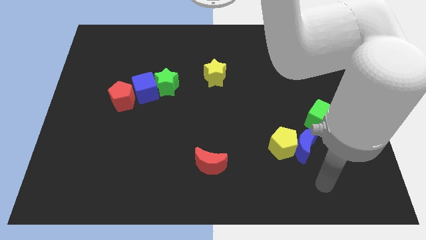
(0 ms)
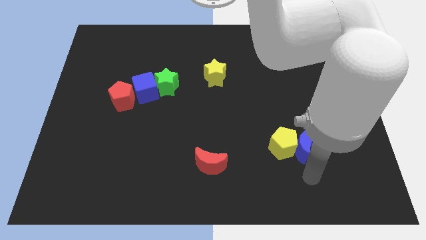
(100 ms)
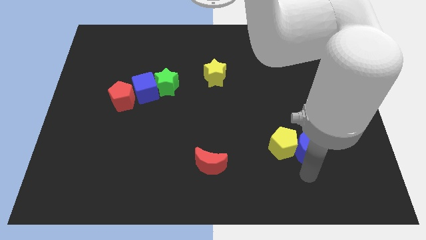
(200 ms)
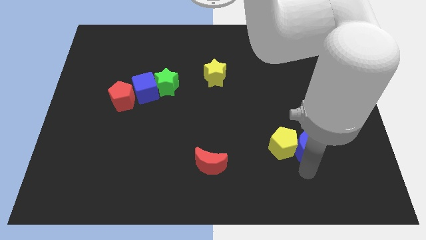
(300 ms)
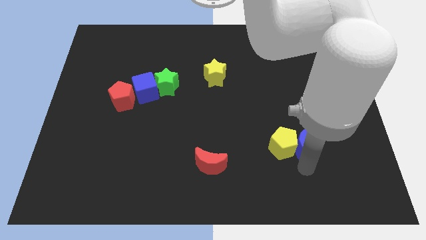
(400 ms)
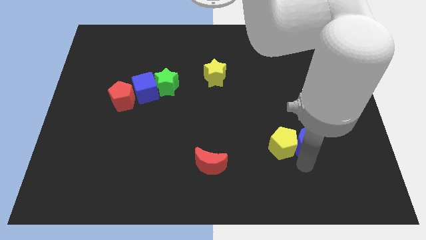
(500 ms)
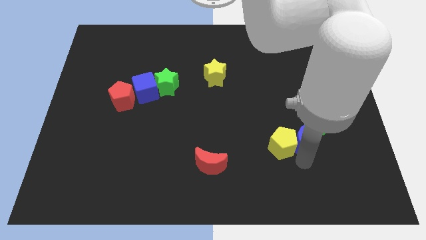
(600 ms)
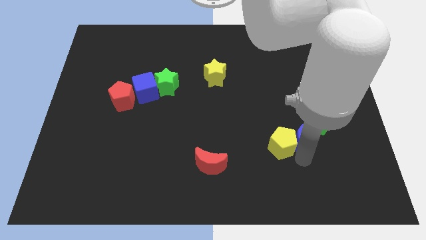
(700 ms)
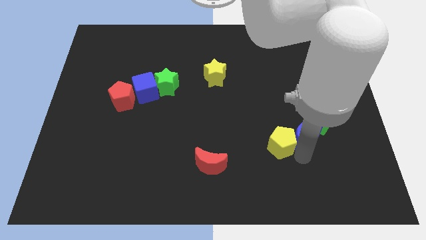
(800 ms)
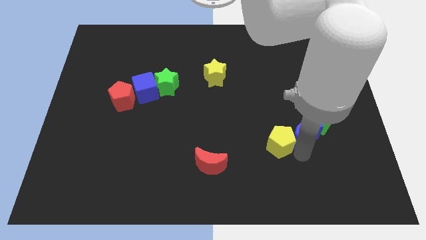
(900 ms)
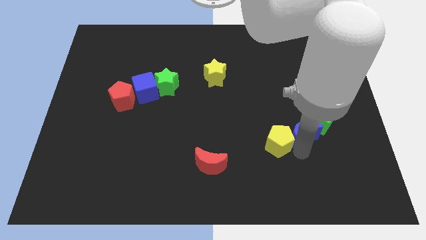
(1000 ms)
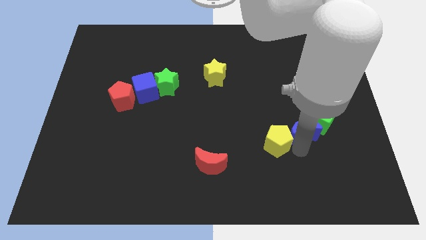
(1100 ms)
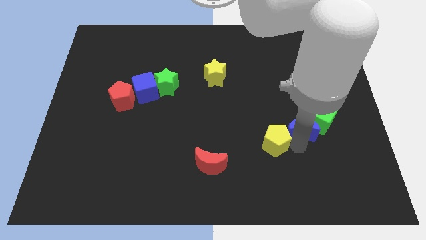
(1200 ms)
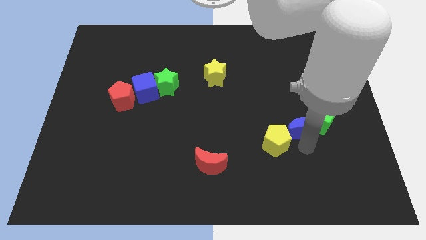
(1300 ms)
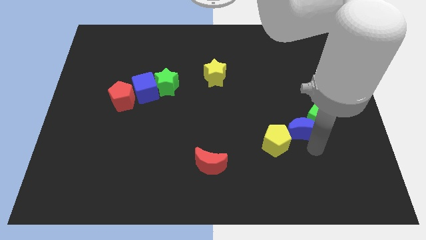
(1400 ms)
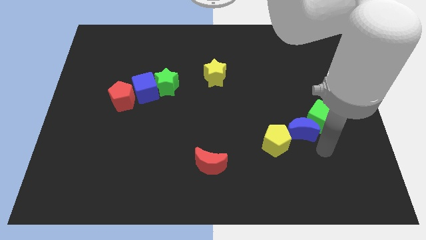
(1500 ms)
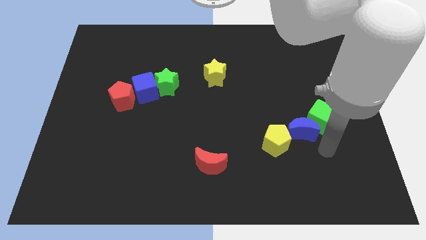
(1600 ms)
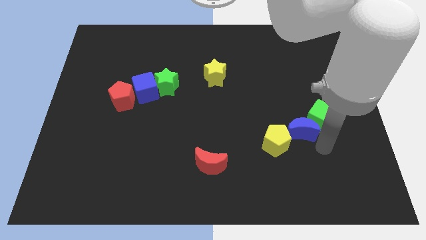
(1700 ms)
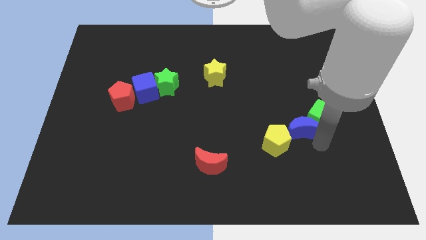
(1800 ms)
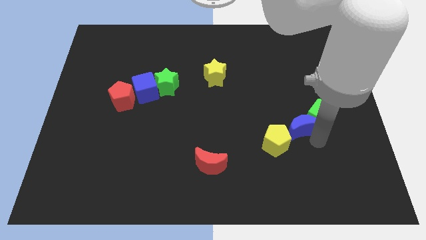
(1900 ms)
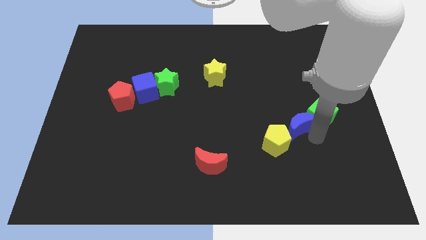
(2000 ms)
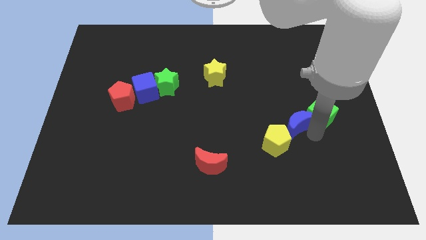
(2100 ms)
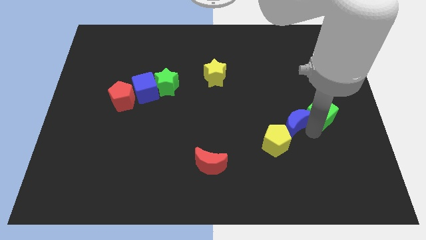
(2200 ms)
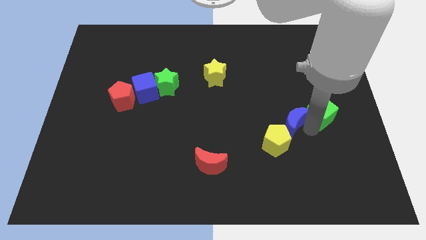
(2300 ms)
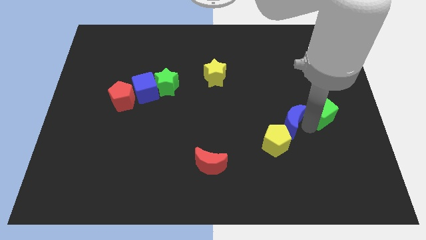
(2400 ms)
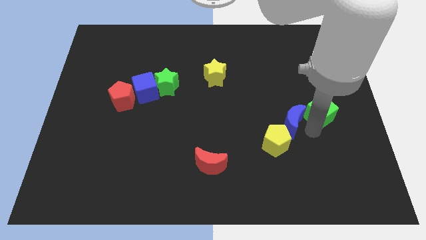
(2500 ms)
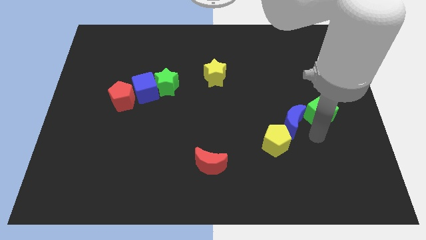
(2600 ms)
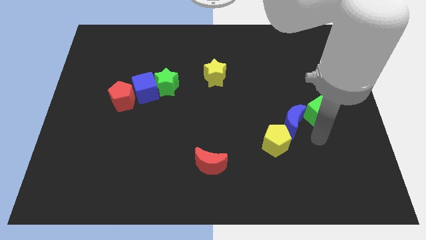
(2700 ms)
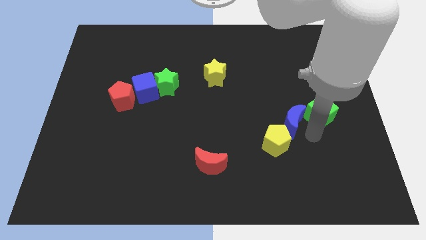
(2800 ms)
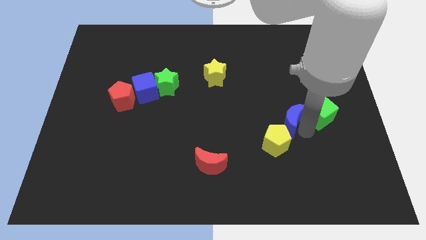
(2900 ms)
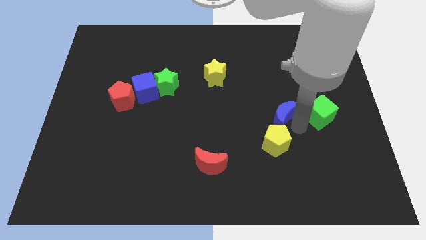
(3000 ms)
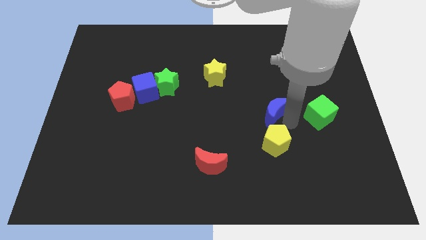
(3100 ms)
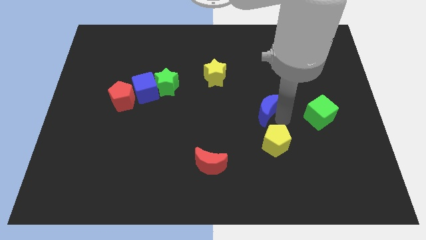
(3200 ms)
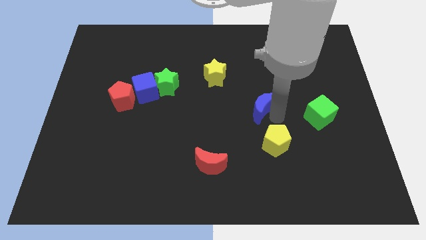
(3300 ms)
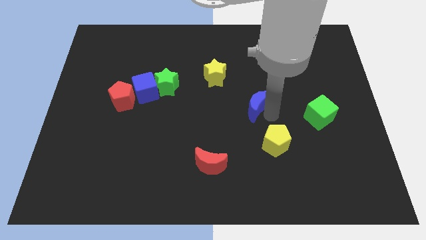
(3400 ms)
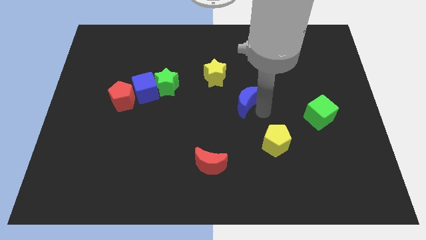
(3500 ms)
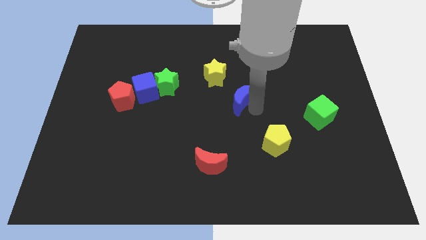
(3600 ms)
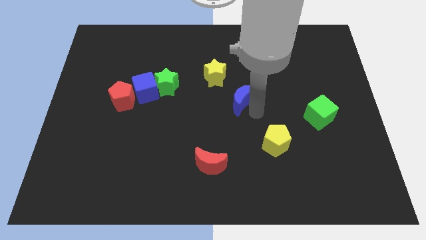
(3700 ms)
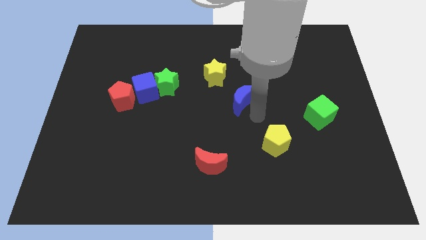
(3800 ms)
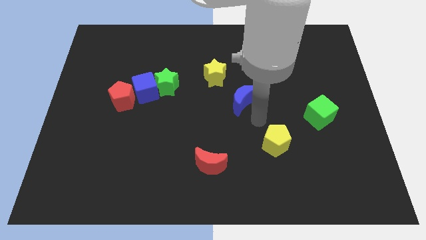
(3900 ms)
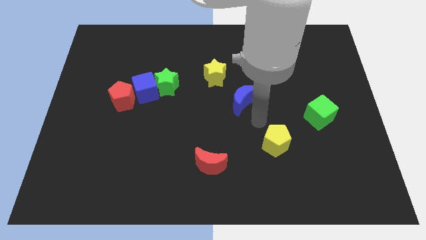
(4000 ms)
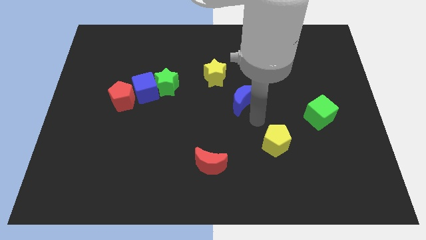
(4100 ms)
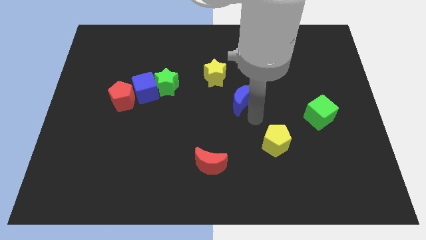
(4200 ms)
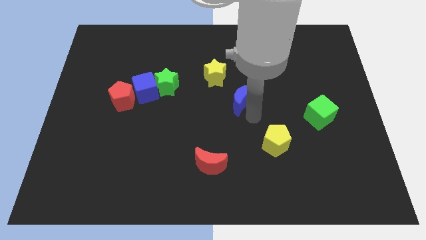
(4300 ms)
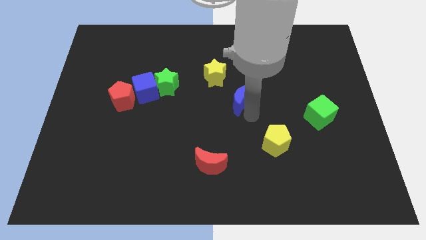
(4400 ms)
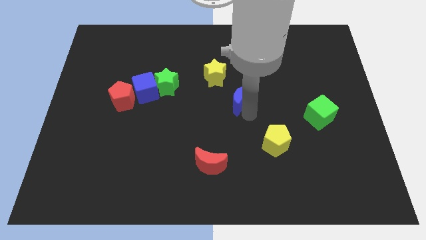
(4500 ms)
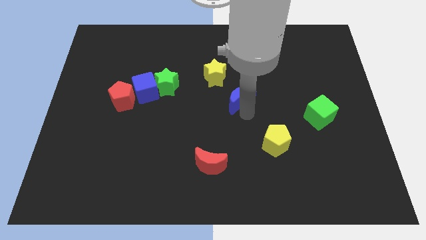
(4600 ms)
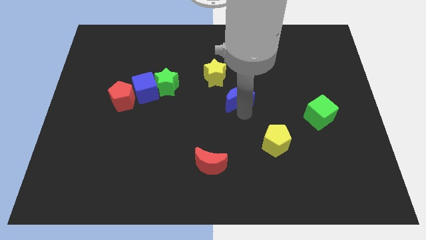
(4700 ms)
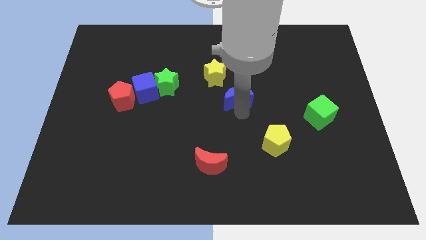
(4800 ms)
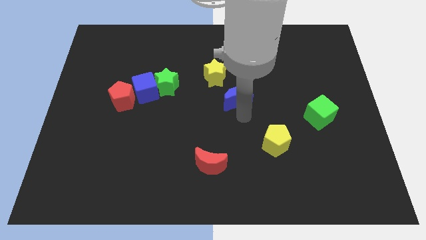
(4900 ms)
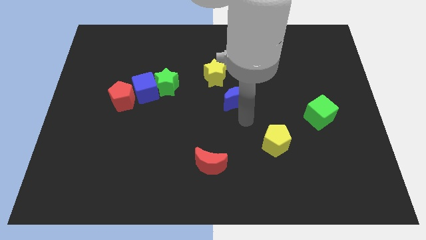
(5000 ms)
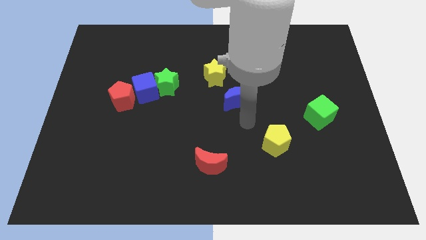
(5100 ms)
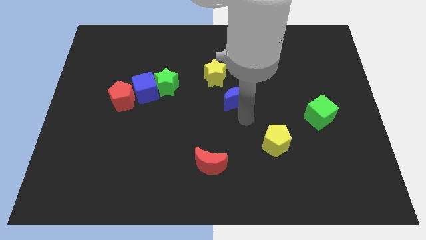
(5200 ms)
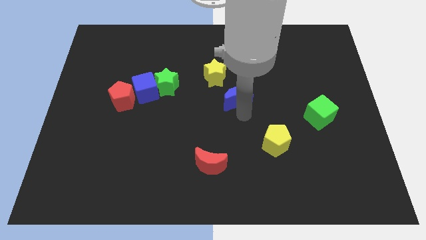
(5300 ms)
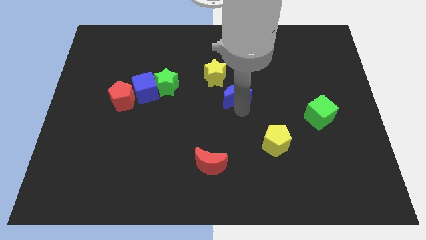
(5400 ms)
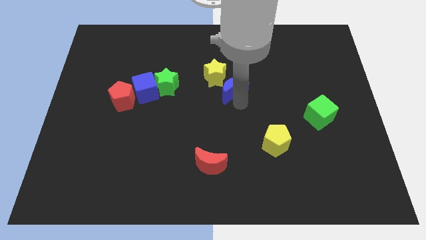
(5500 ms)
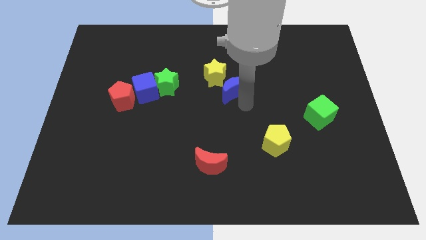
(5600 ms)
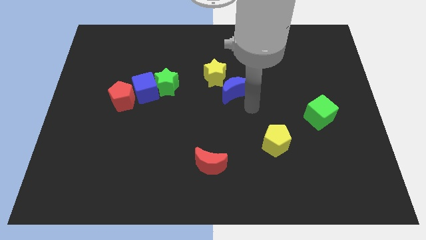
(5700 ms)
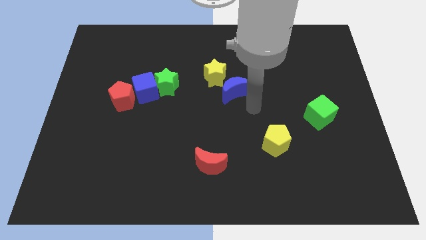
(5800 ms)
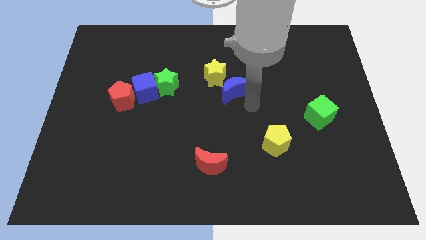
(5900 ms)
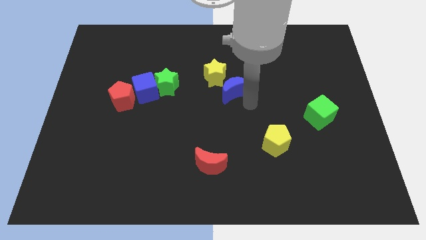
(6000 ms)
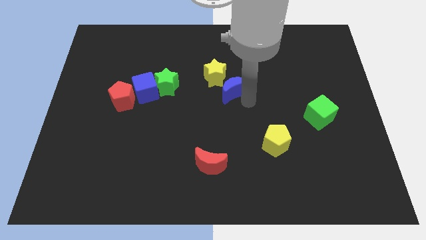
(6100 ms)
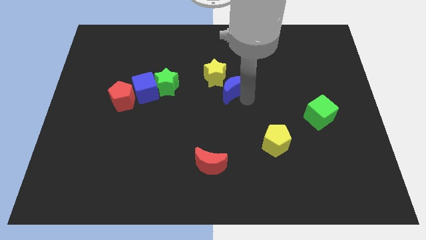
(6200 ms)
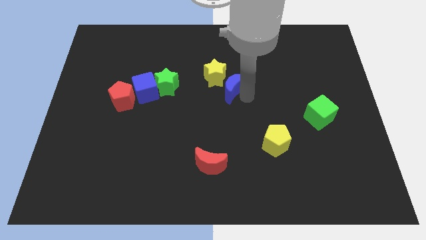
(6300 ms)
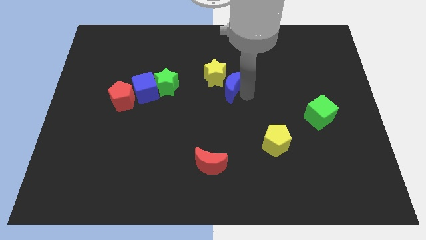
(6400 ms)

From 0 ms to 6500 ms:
slide the blue moon to the yellow star

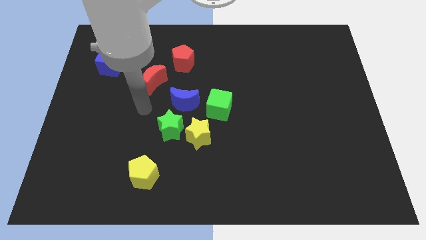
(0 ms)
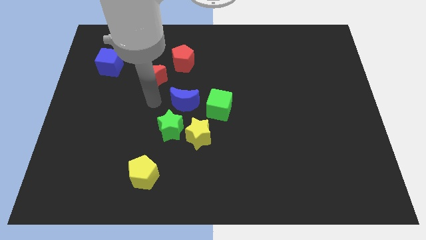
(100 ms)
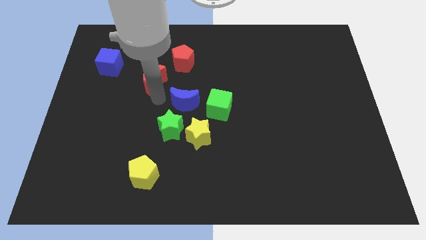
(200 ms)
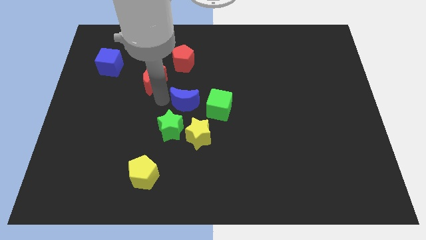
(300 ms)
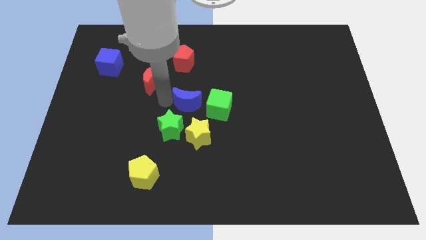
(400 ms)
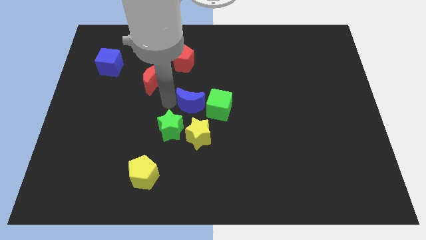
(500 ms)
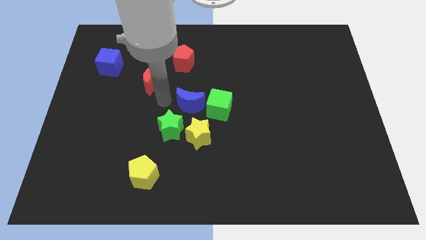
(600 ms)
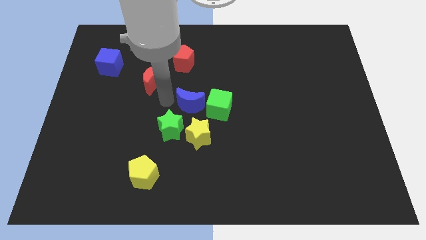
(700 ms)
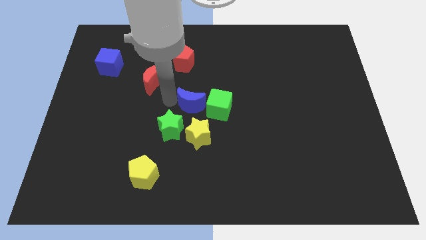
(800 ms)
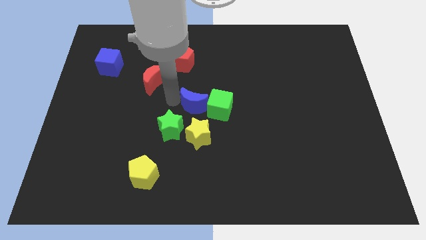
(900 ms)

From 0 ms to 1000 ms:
slide the blue moon towards the green cube
